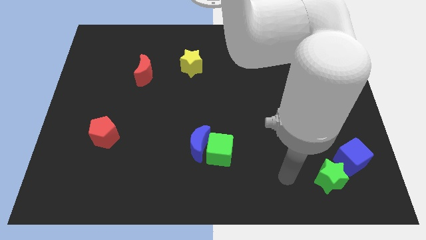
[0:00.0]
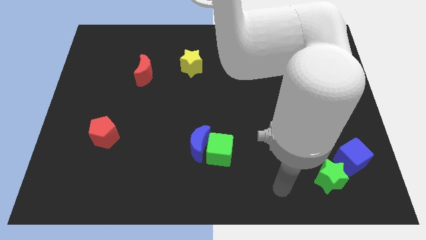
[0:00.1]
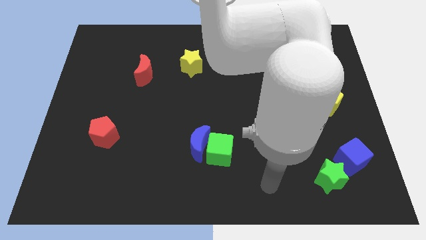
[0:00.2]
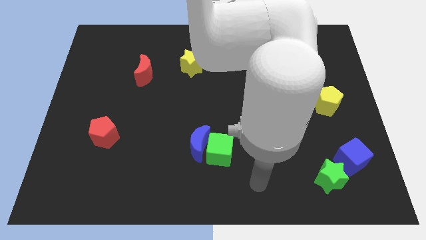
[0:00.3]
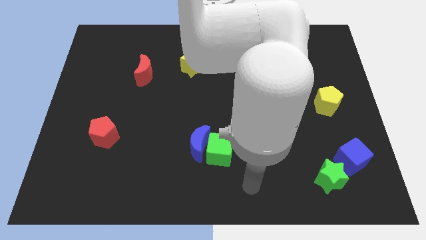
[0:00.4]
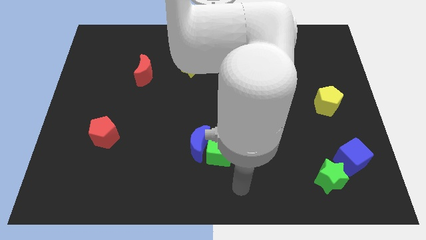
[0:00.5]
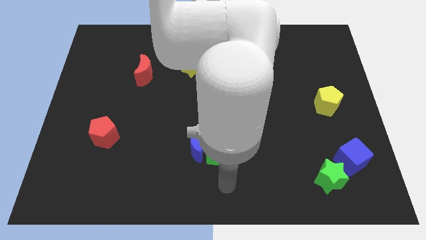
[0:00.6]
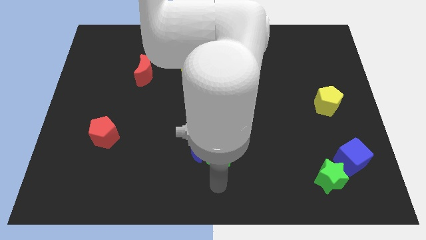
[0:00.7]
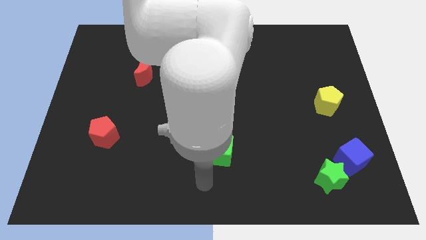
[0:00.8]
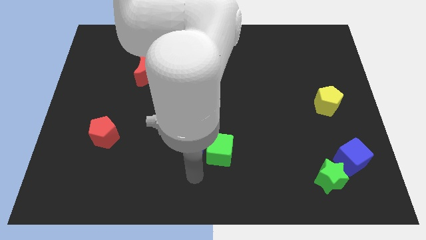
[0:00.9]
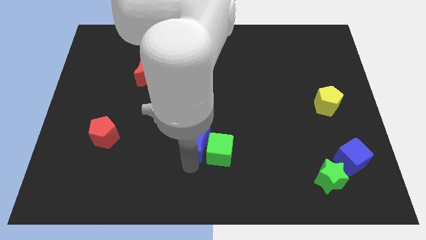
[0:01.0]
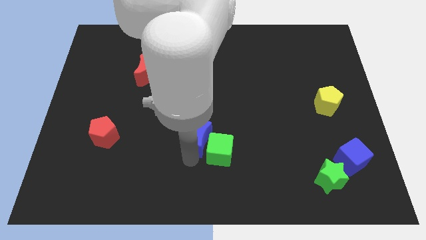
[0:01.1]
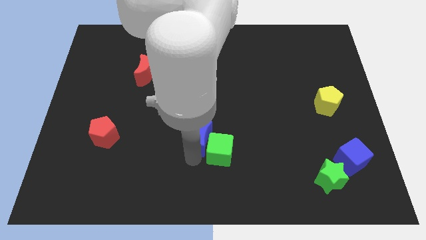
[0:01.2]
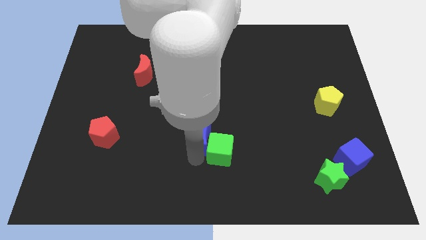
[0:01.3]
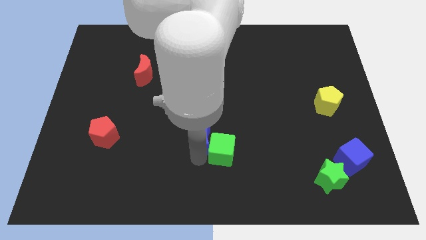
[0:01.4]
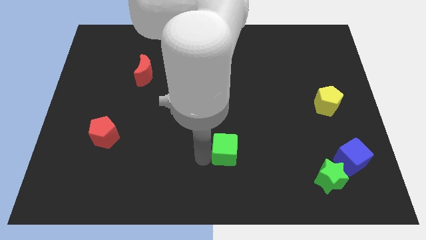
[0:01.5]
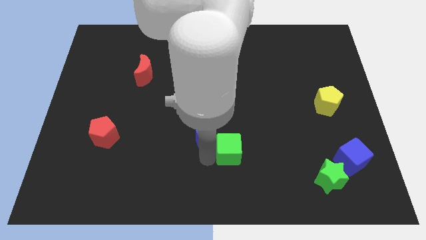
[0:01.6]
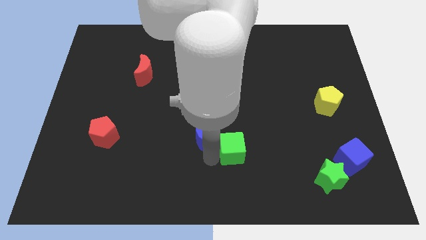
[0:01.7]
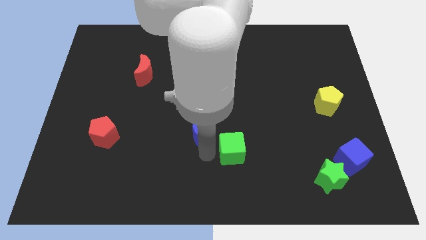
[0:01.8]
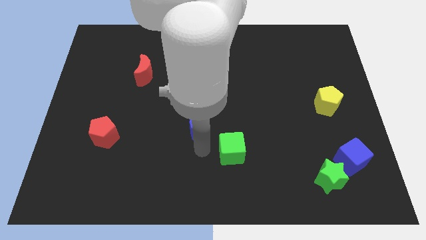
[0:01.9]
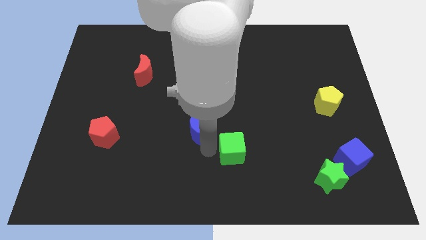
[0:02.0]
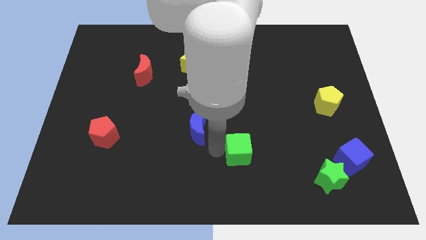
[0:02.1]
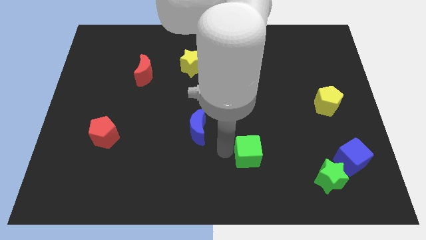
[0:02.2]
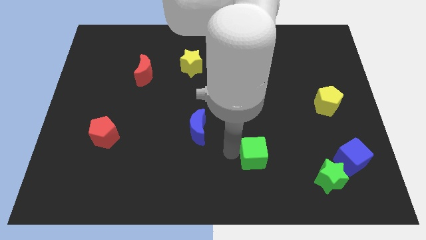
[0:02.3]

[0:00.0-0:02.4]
push the green cube a bit to the right

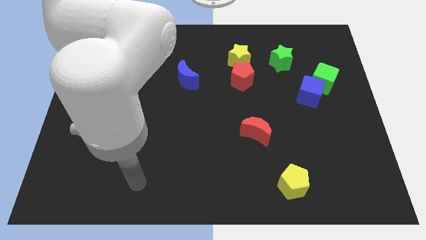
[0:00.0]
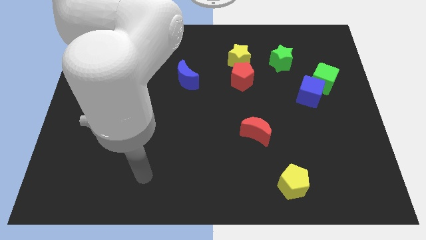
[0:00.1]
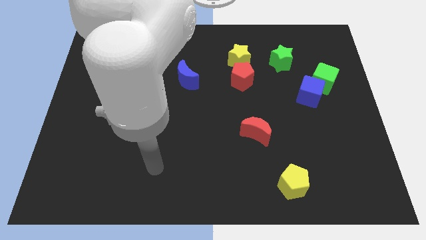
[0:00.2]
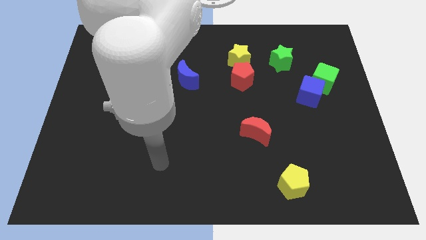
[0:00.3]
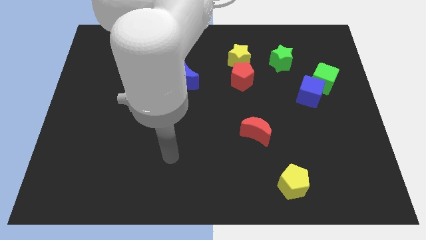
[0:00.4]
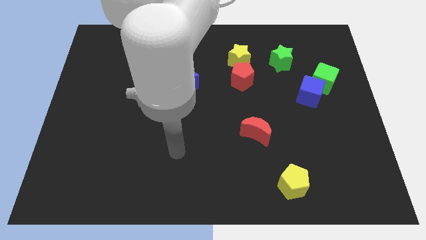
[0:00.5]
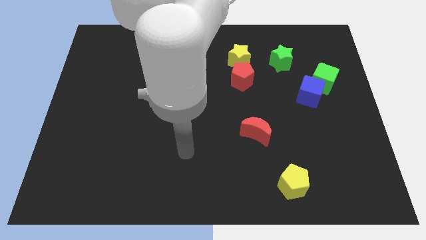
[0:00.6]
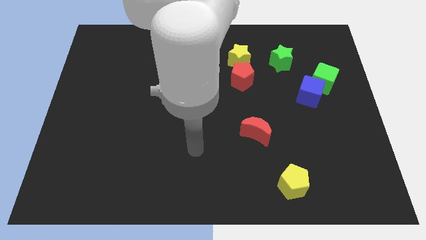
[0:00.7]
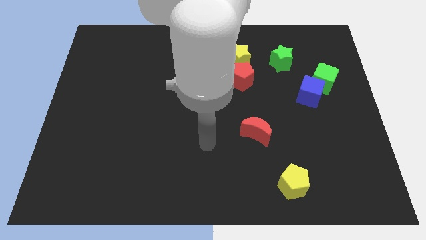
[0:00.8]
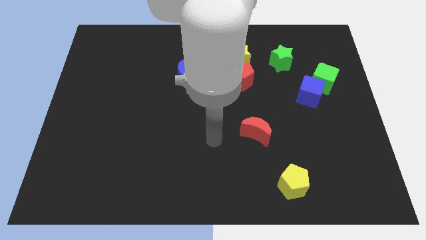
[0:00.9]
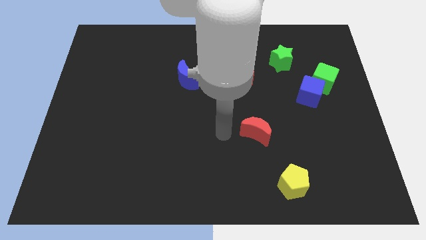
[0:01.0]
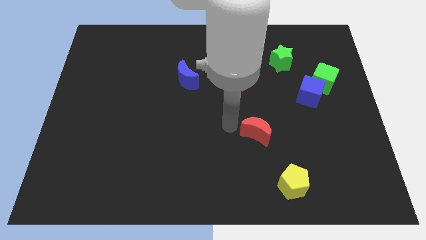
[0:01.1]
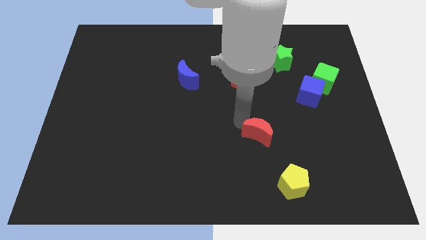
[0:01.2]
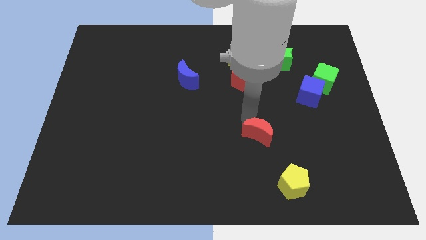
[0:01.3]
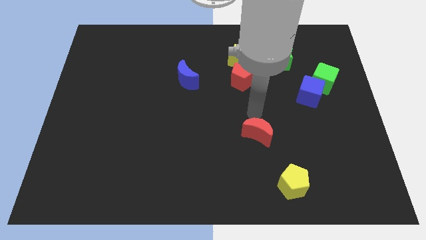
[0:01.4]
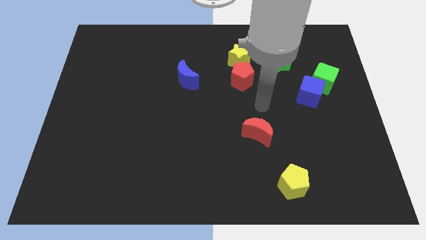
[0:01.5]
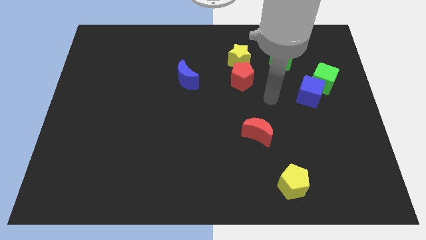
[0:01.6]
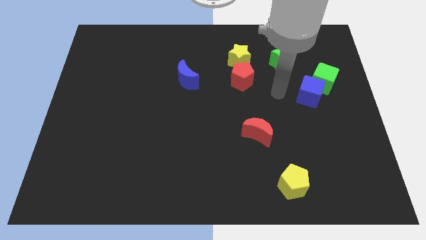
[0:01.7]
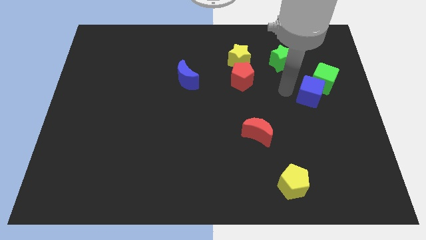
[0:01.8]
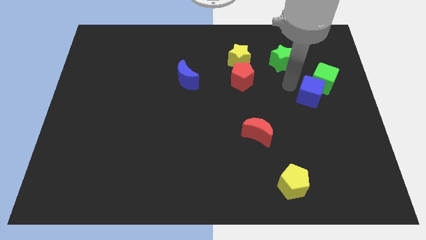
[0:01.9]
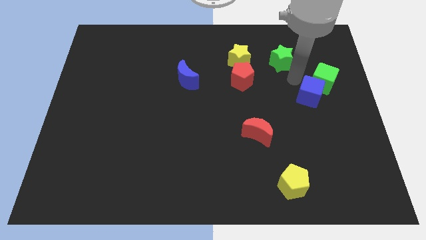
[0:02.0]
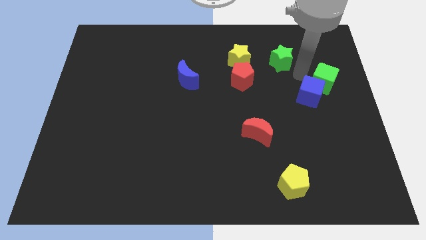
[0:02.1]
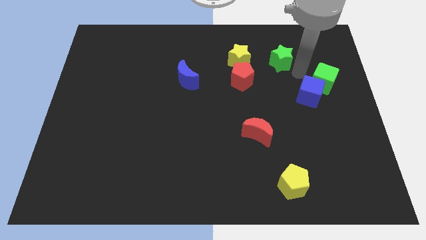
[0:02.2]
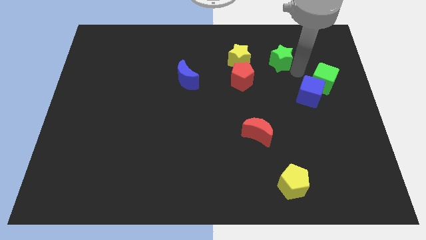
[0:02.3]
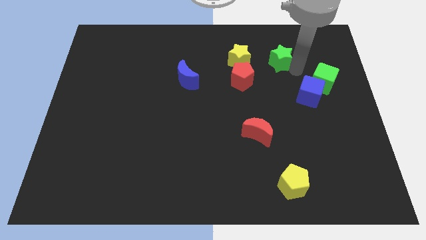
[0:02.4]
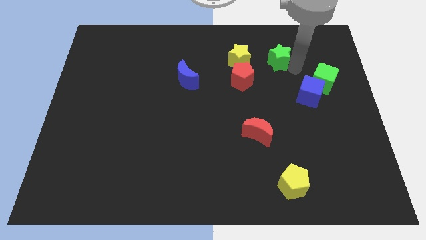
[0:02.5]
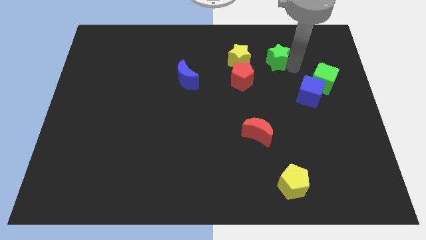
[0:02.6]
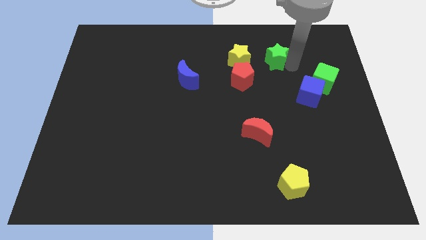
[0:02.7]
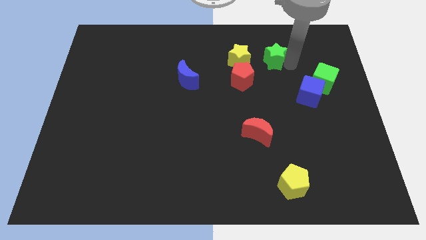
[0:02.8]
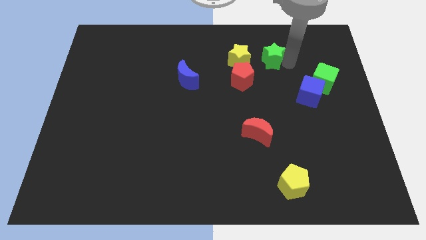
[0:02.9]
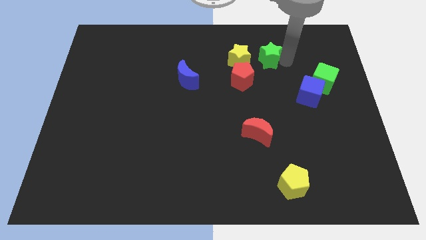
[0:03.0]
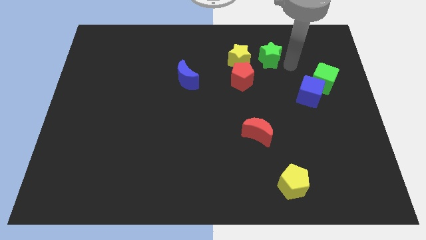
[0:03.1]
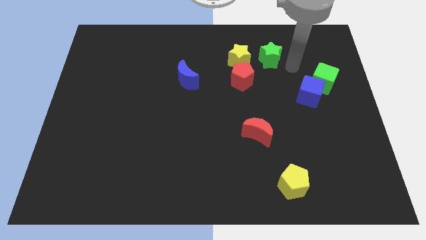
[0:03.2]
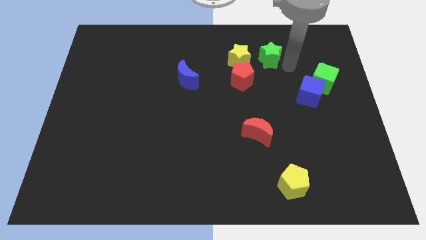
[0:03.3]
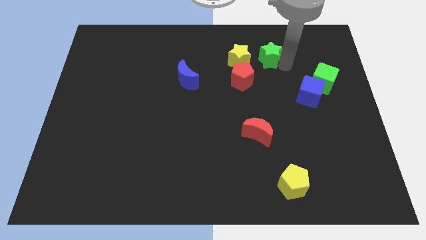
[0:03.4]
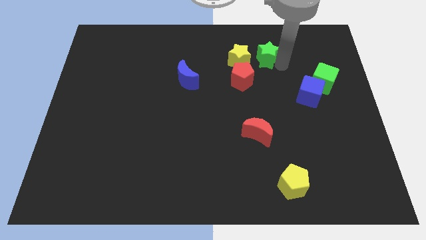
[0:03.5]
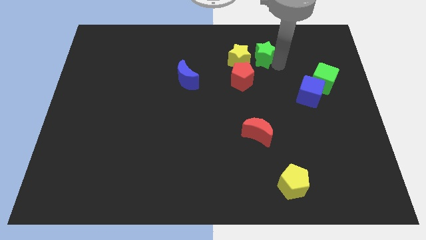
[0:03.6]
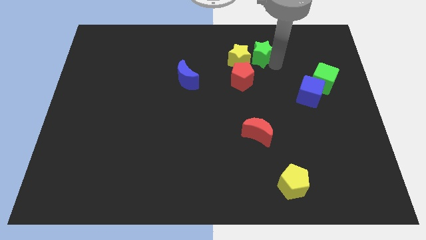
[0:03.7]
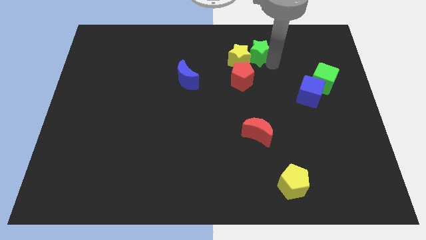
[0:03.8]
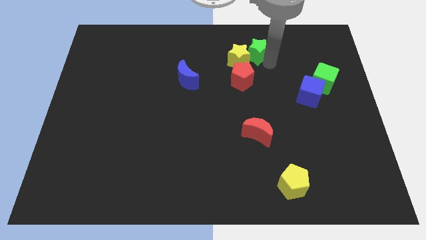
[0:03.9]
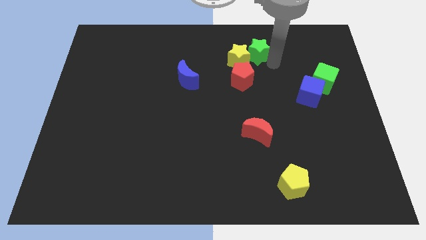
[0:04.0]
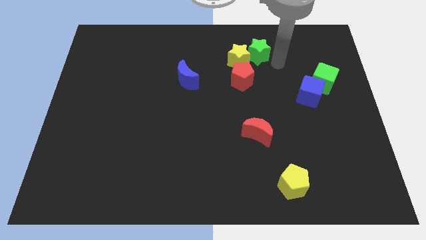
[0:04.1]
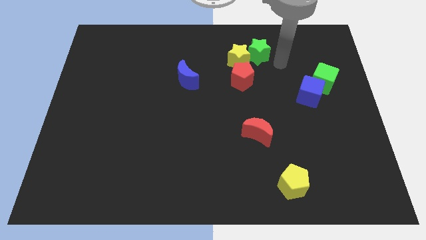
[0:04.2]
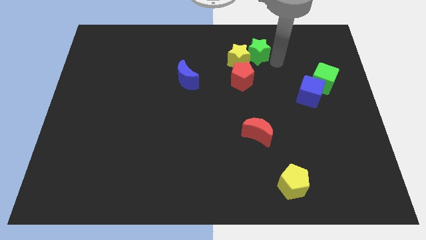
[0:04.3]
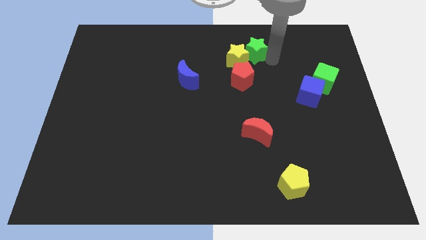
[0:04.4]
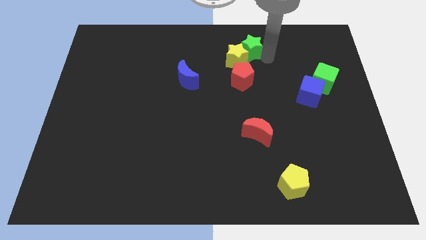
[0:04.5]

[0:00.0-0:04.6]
push the green star a little left

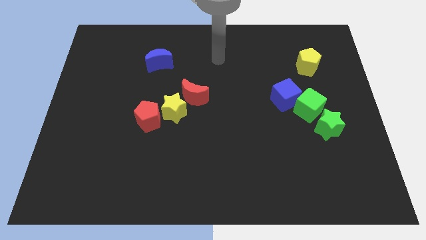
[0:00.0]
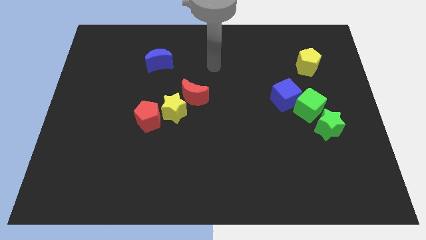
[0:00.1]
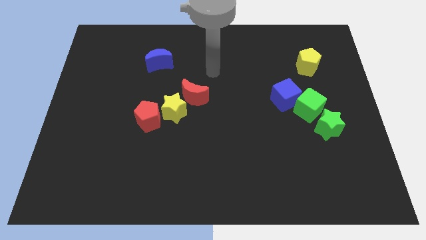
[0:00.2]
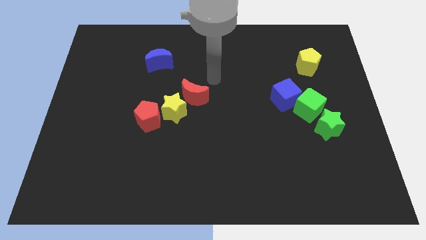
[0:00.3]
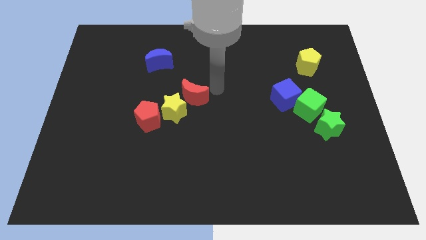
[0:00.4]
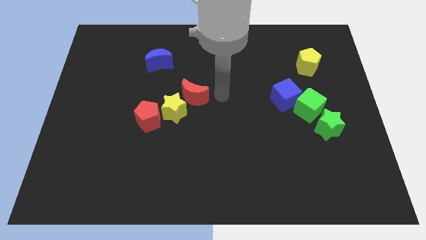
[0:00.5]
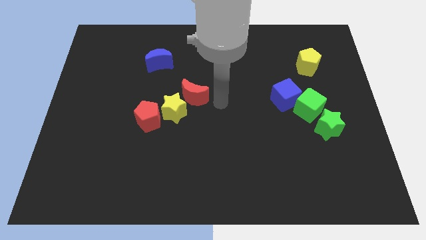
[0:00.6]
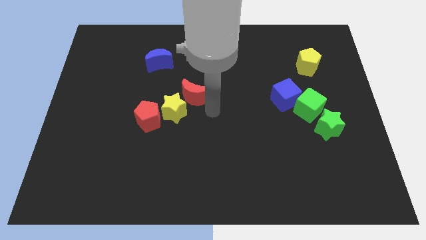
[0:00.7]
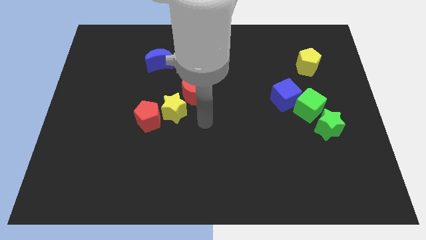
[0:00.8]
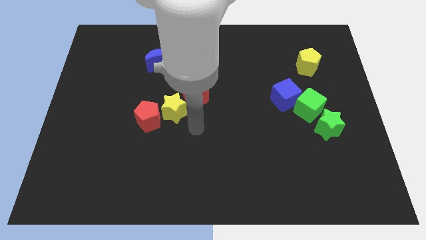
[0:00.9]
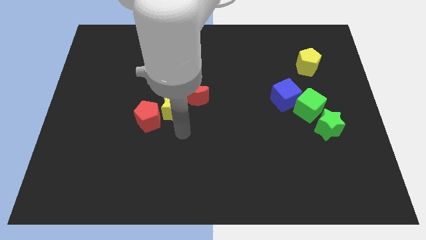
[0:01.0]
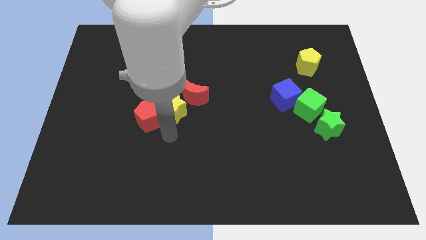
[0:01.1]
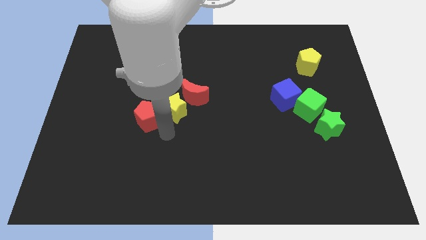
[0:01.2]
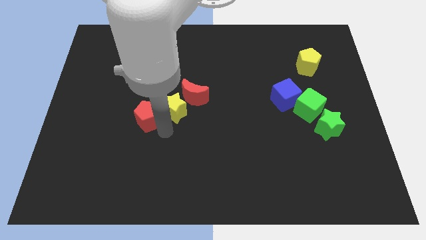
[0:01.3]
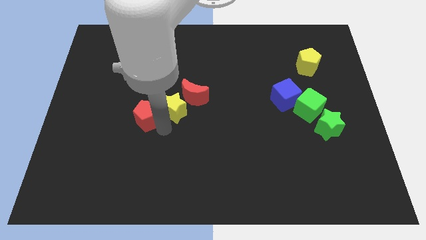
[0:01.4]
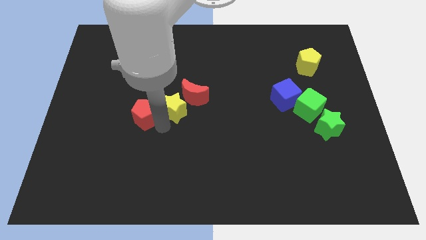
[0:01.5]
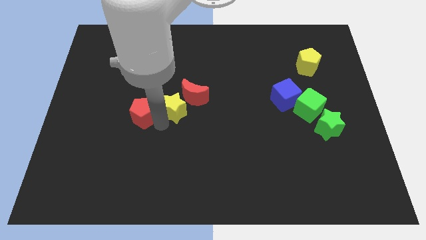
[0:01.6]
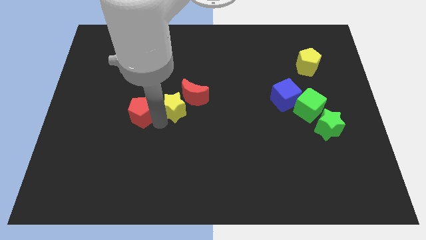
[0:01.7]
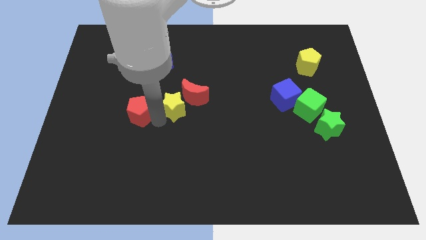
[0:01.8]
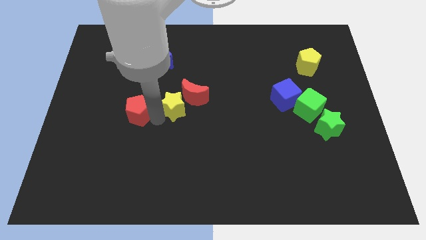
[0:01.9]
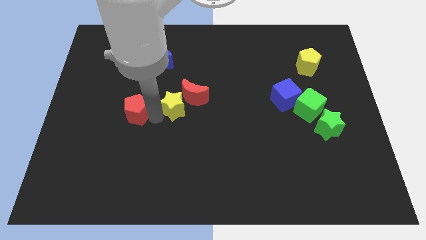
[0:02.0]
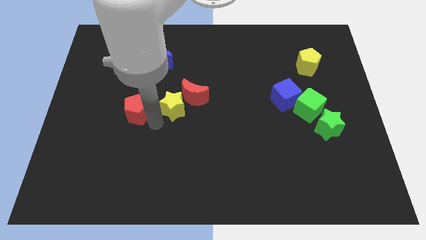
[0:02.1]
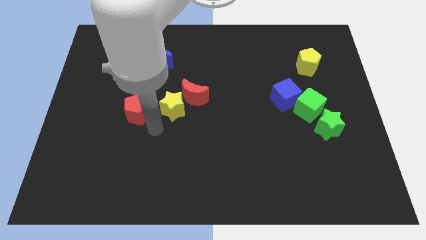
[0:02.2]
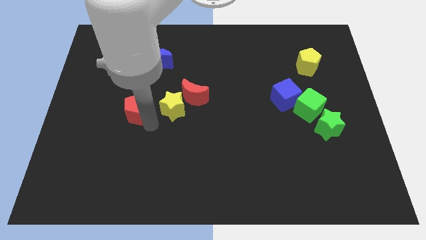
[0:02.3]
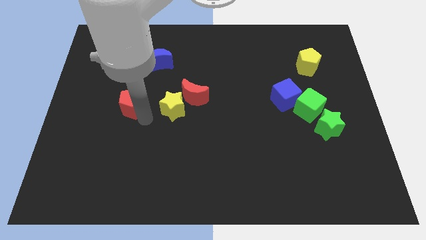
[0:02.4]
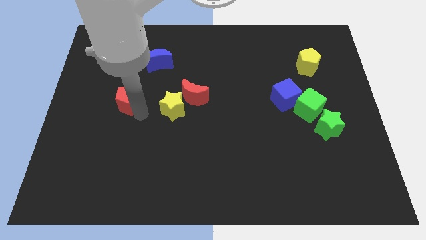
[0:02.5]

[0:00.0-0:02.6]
slide the red pentagon a little diagonally up and left
